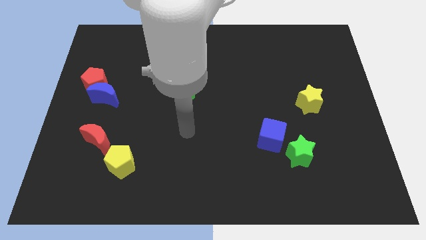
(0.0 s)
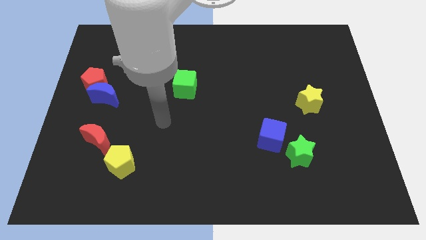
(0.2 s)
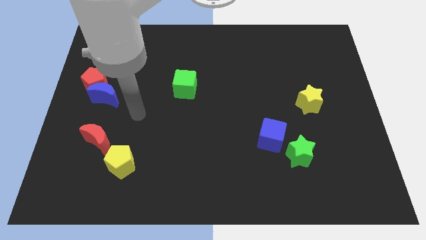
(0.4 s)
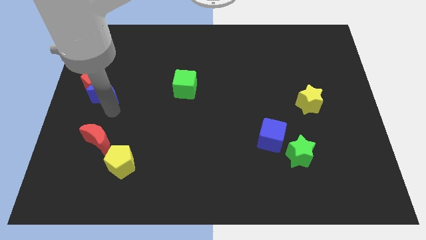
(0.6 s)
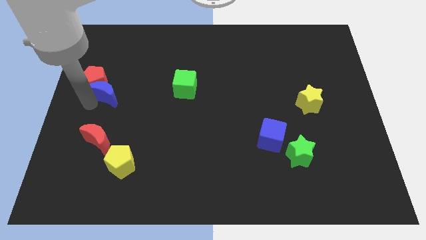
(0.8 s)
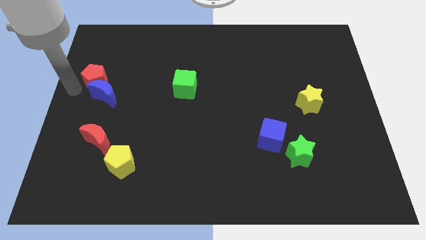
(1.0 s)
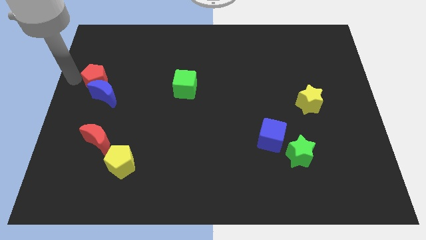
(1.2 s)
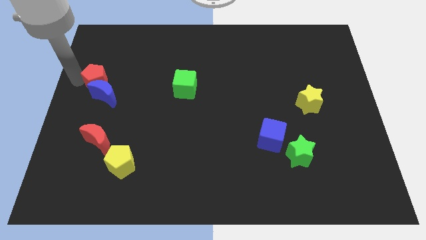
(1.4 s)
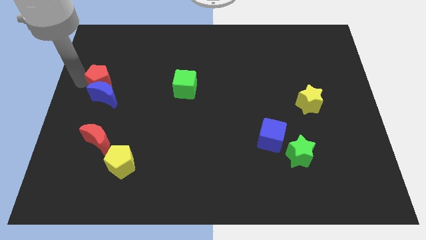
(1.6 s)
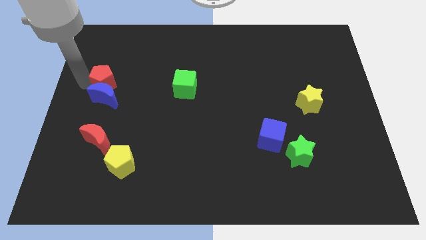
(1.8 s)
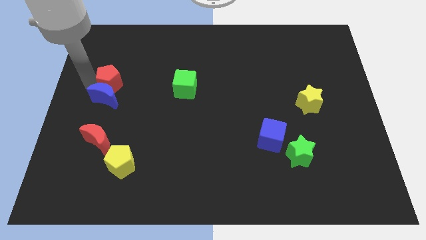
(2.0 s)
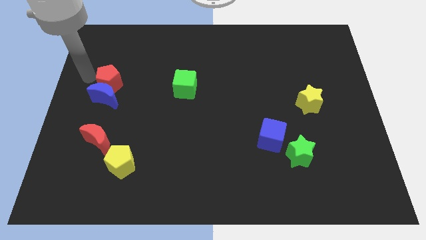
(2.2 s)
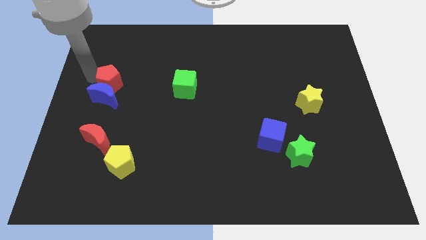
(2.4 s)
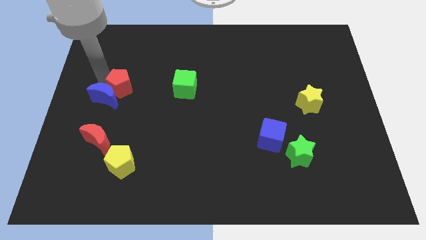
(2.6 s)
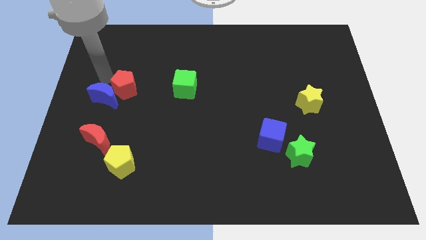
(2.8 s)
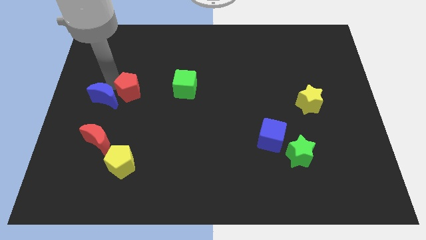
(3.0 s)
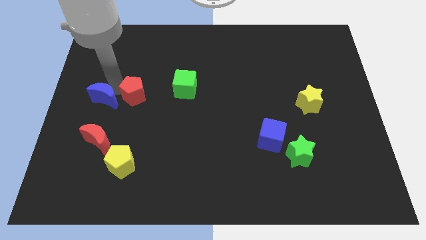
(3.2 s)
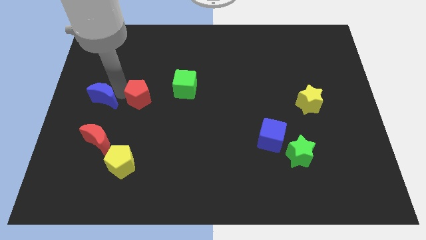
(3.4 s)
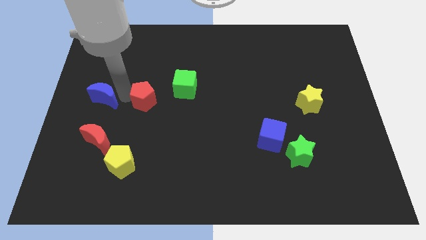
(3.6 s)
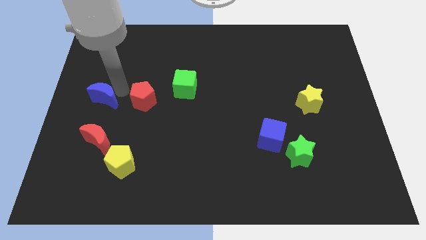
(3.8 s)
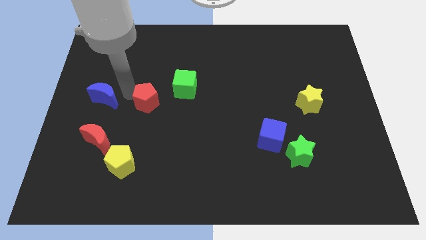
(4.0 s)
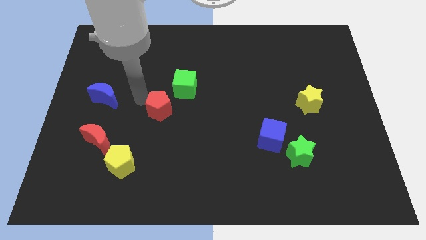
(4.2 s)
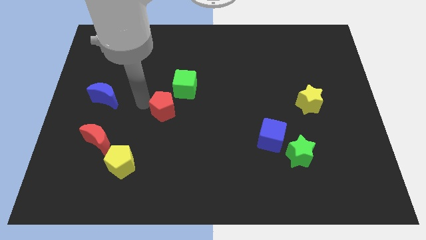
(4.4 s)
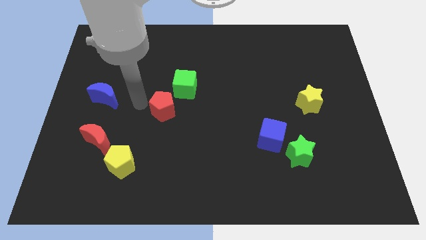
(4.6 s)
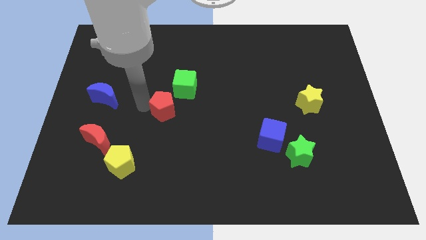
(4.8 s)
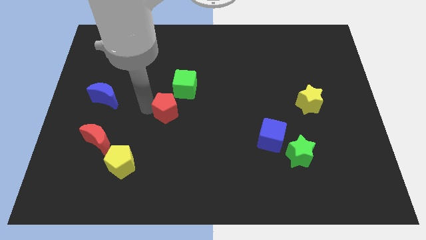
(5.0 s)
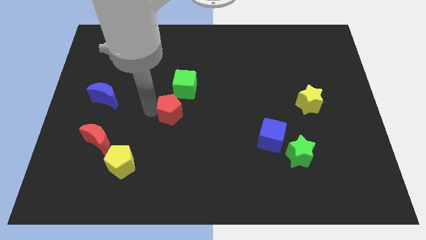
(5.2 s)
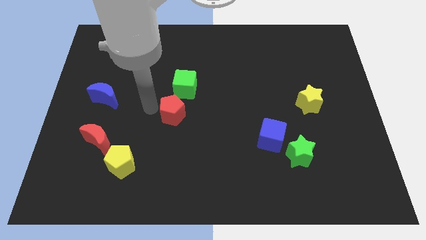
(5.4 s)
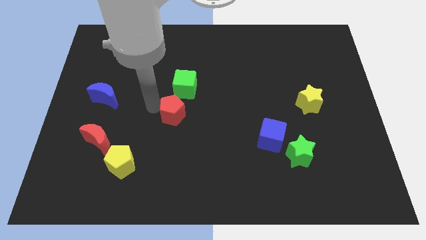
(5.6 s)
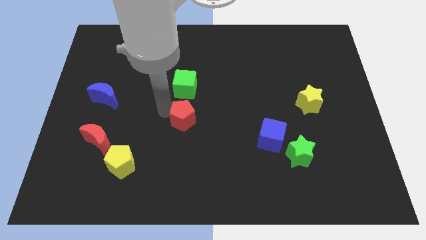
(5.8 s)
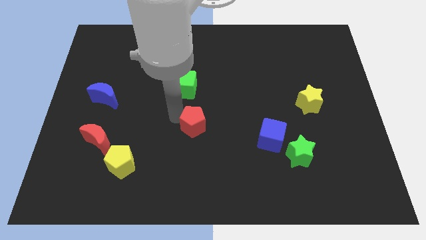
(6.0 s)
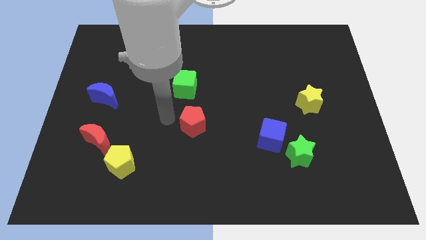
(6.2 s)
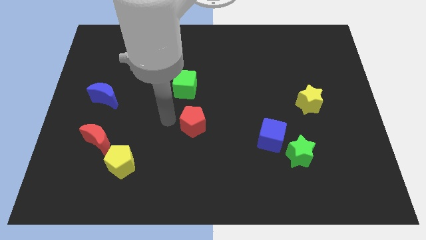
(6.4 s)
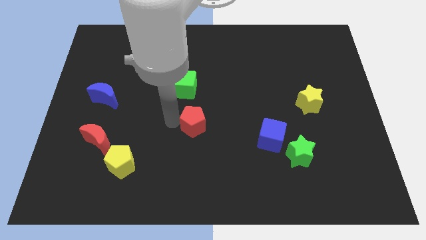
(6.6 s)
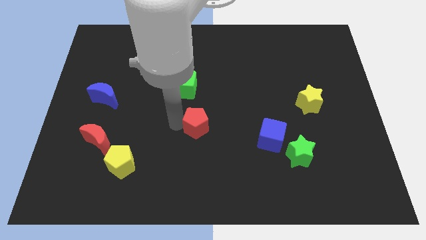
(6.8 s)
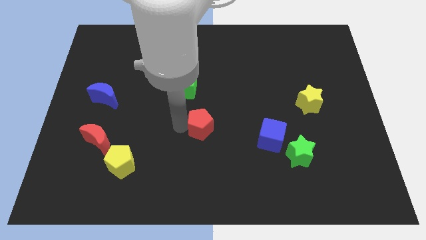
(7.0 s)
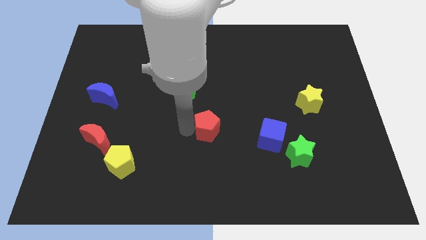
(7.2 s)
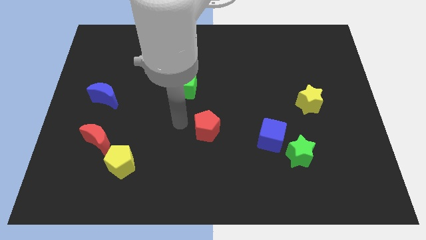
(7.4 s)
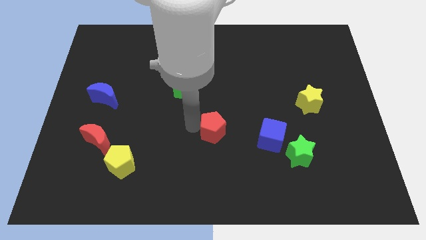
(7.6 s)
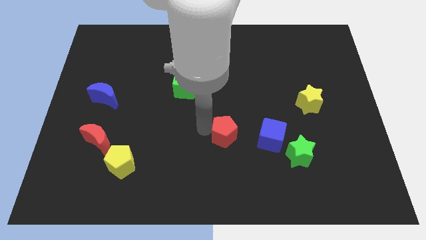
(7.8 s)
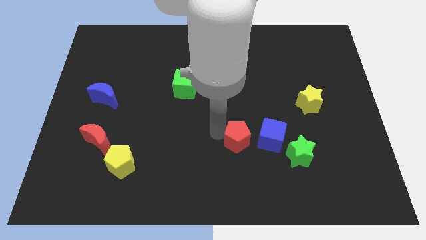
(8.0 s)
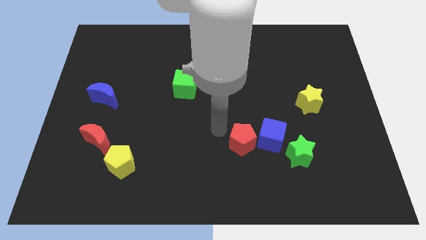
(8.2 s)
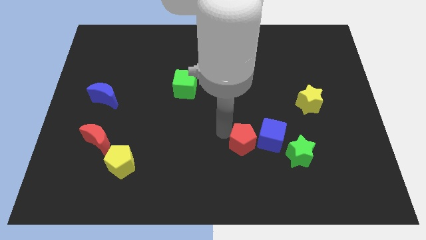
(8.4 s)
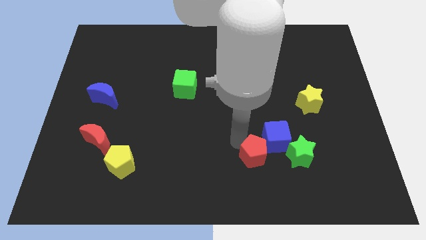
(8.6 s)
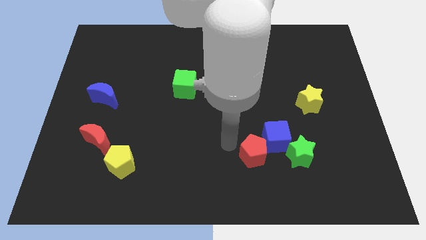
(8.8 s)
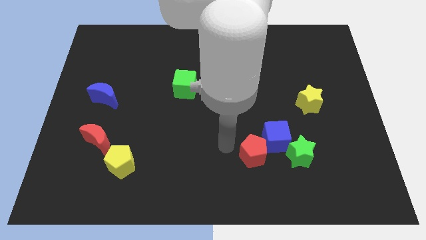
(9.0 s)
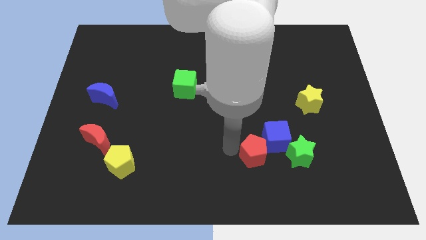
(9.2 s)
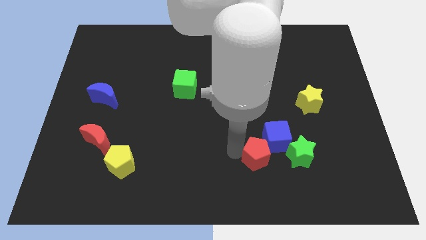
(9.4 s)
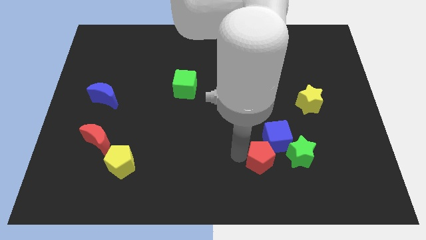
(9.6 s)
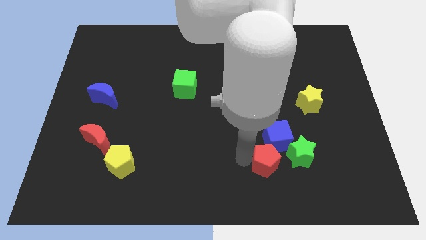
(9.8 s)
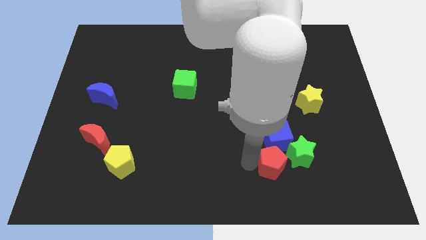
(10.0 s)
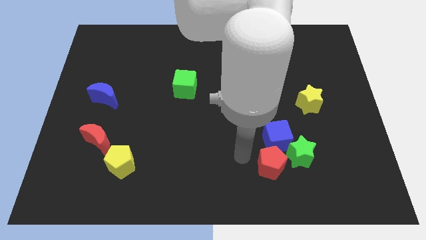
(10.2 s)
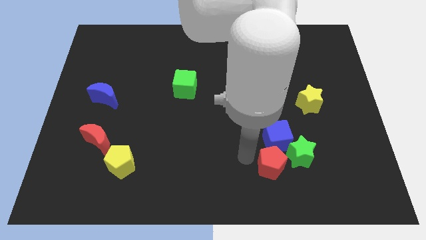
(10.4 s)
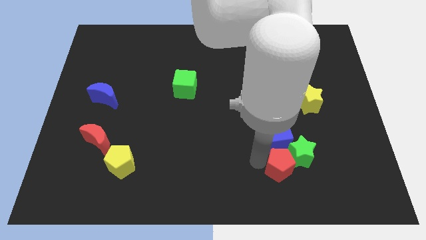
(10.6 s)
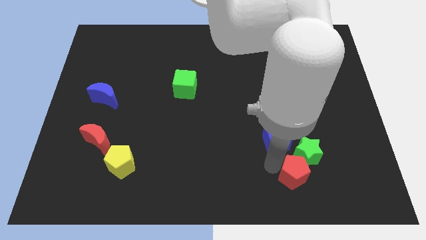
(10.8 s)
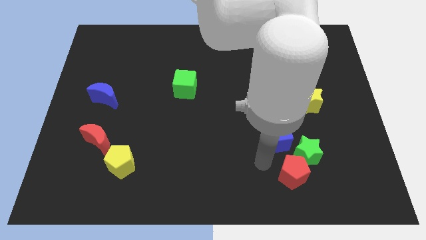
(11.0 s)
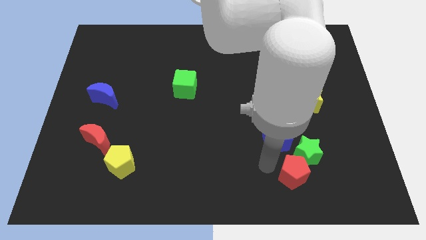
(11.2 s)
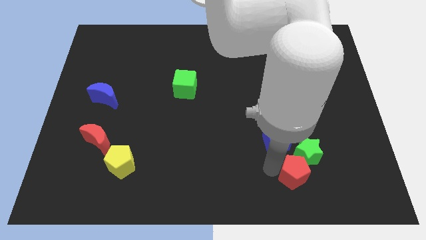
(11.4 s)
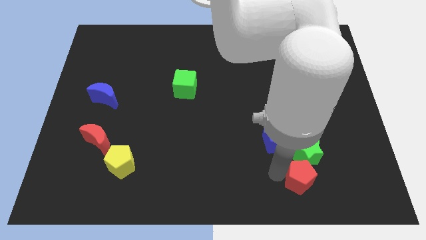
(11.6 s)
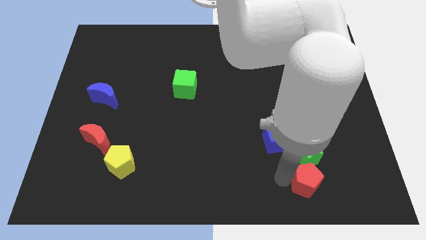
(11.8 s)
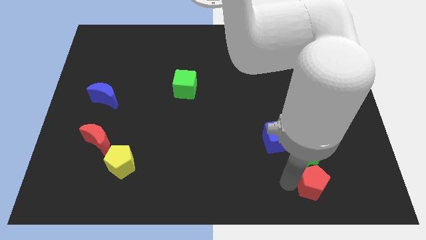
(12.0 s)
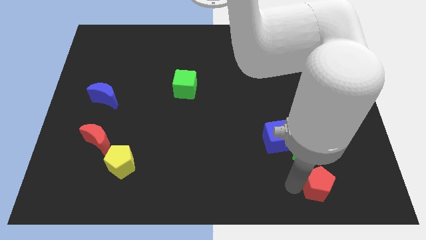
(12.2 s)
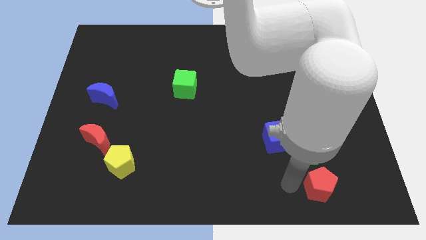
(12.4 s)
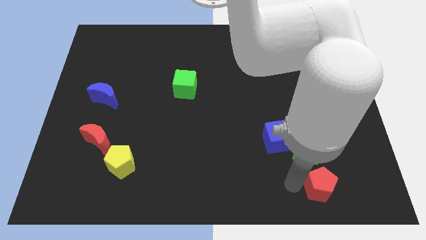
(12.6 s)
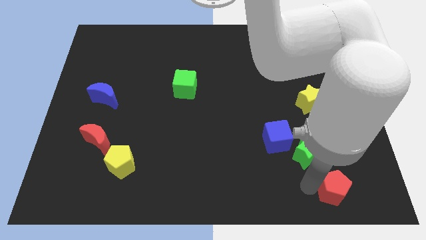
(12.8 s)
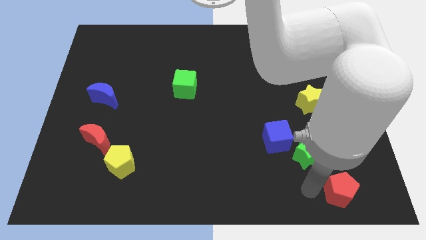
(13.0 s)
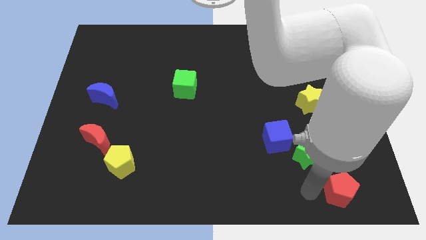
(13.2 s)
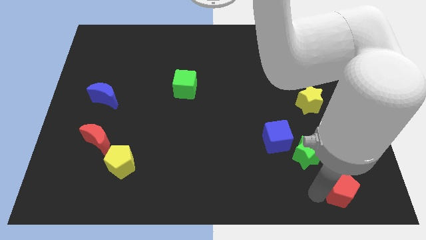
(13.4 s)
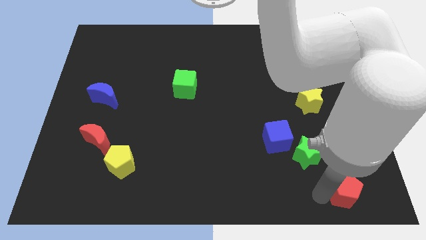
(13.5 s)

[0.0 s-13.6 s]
push the red pentagon to the bottom right of the board
